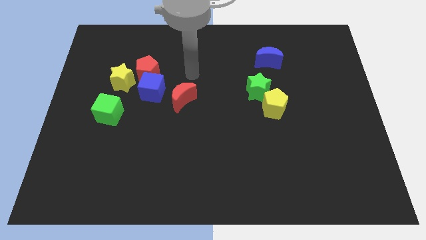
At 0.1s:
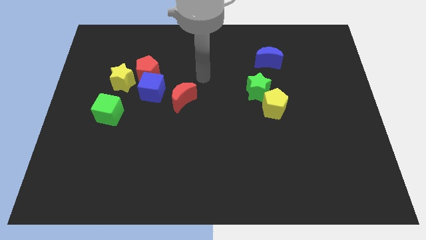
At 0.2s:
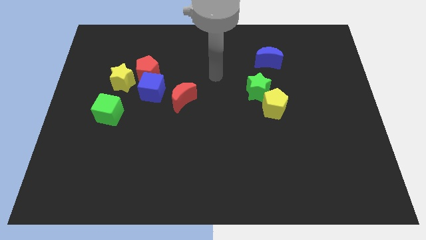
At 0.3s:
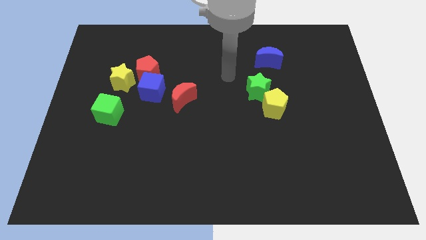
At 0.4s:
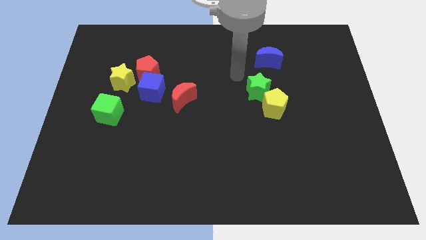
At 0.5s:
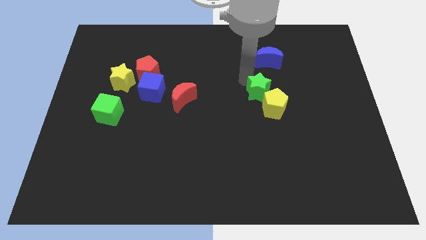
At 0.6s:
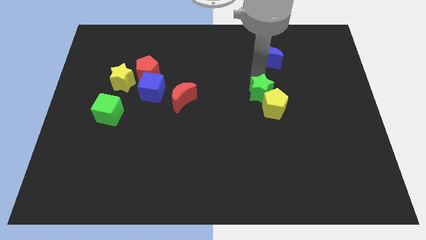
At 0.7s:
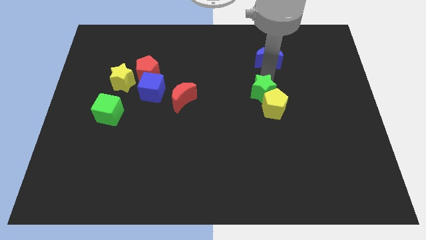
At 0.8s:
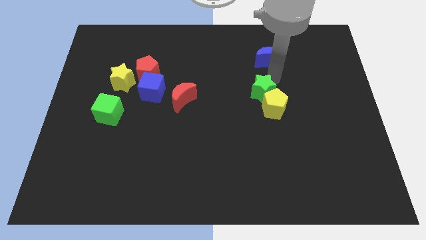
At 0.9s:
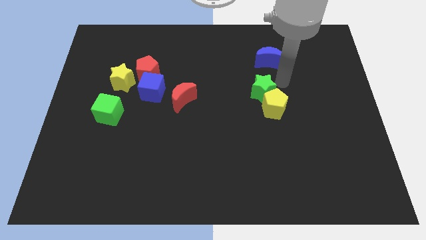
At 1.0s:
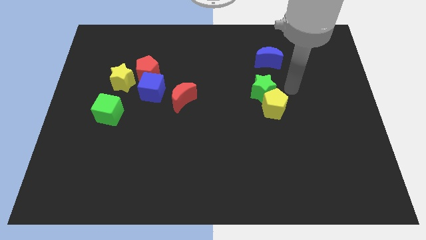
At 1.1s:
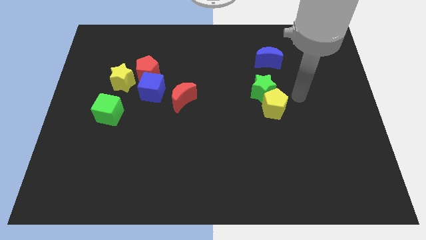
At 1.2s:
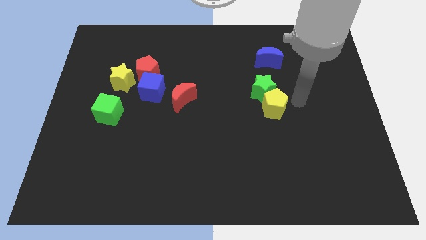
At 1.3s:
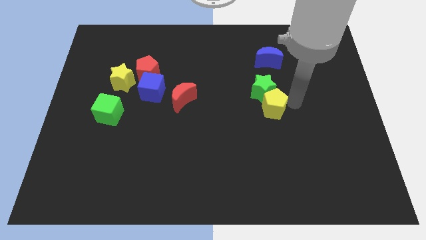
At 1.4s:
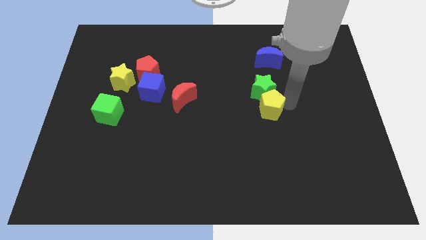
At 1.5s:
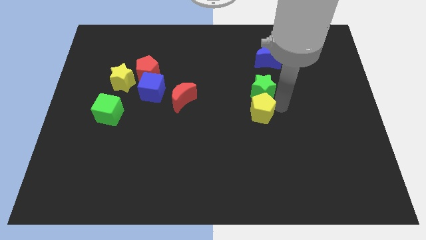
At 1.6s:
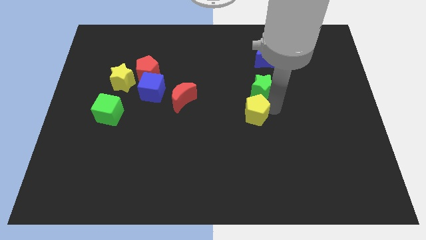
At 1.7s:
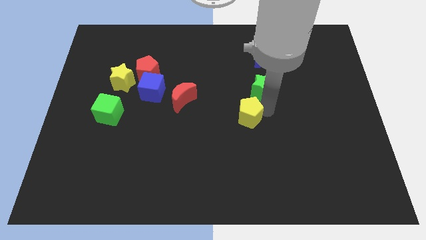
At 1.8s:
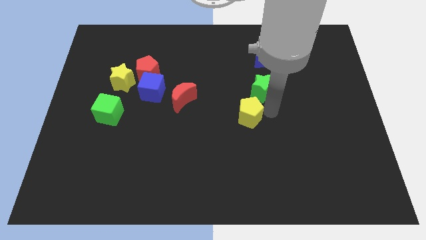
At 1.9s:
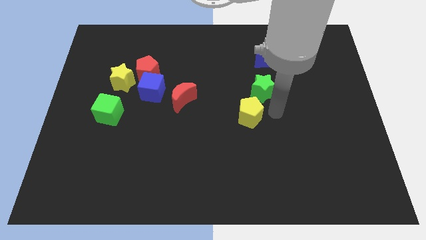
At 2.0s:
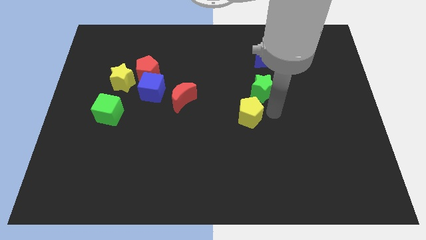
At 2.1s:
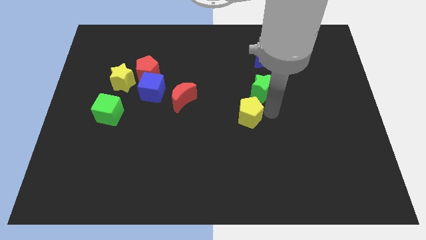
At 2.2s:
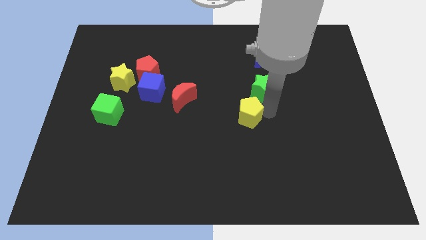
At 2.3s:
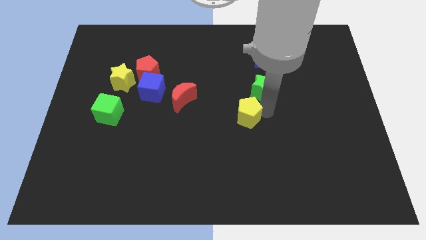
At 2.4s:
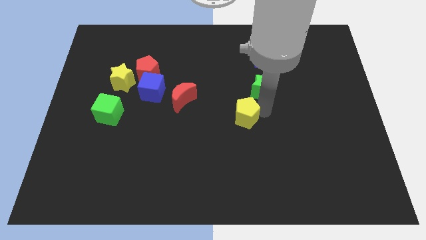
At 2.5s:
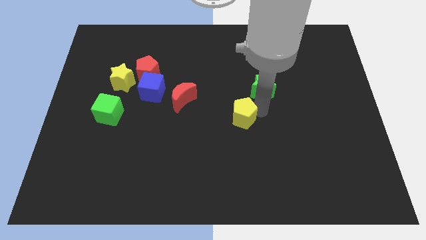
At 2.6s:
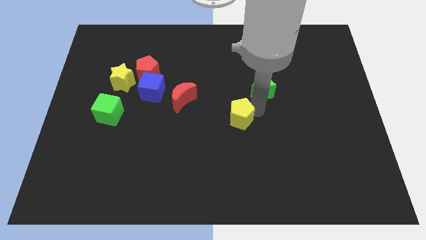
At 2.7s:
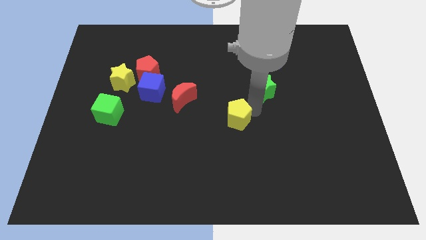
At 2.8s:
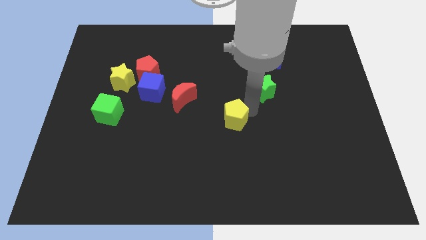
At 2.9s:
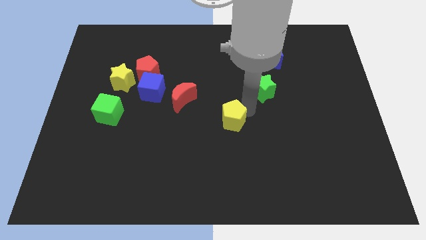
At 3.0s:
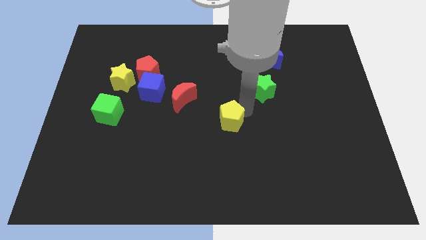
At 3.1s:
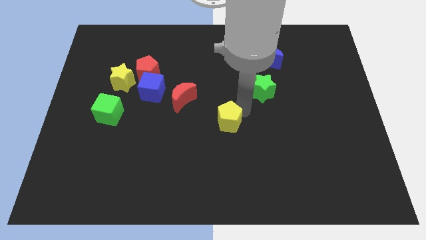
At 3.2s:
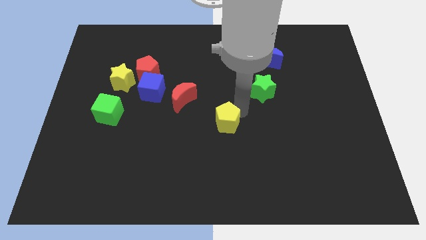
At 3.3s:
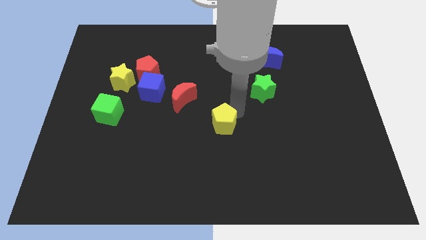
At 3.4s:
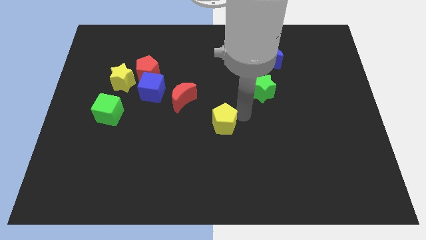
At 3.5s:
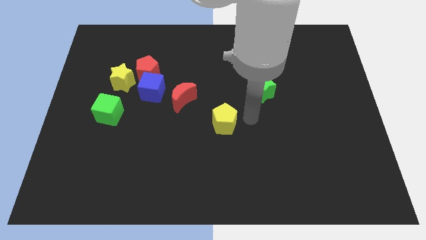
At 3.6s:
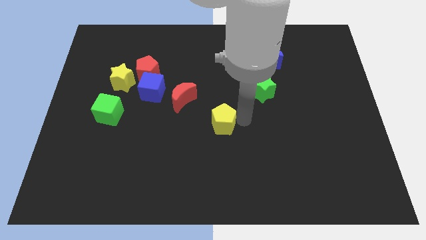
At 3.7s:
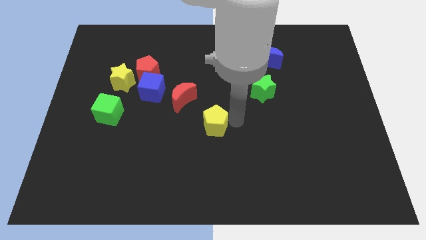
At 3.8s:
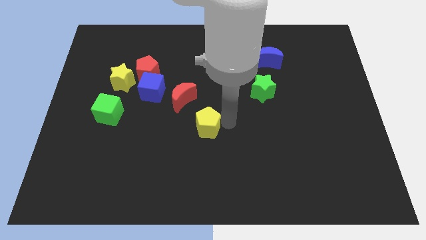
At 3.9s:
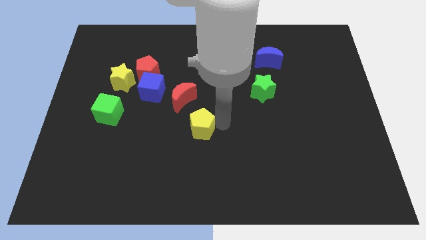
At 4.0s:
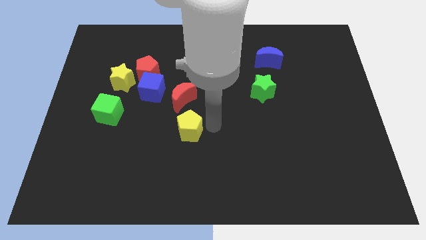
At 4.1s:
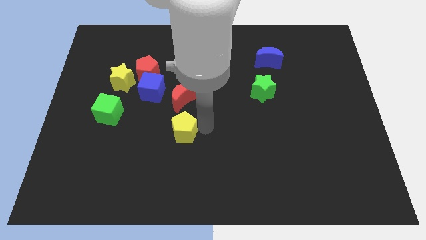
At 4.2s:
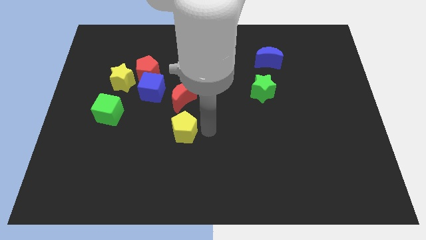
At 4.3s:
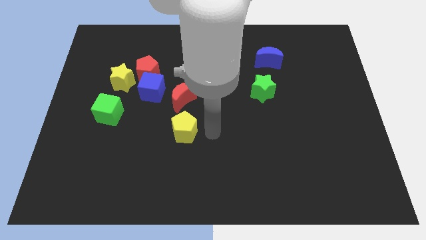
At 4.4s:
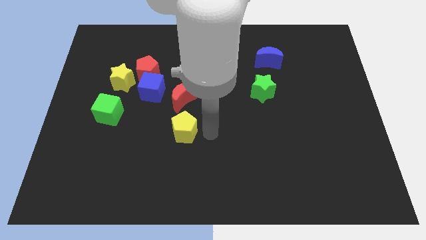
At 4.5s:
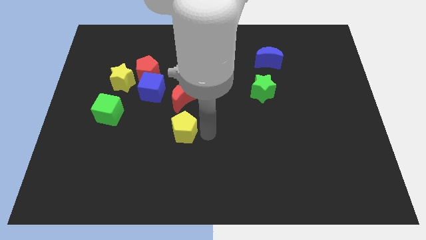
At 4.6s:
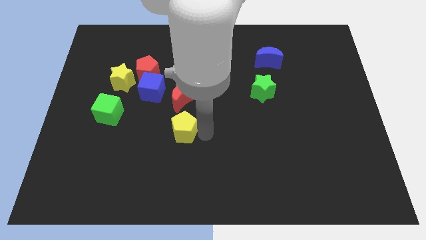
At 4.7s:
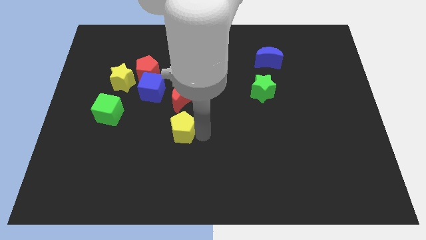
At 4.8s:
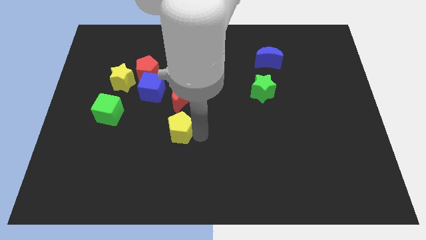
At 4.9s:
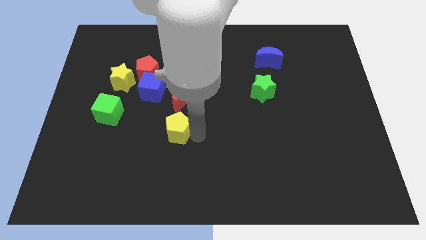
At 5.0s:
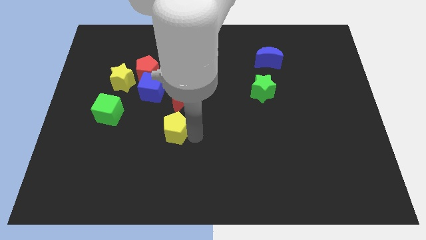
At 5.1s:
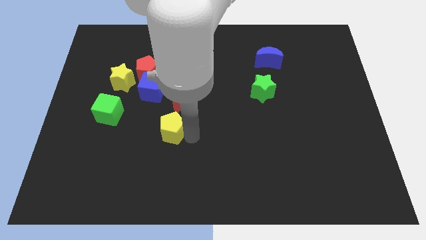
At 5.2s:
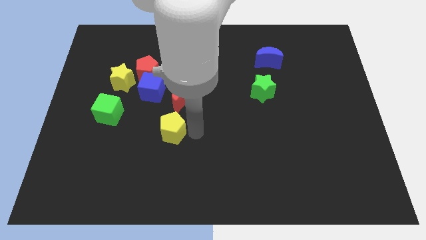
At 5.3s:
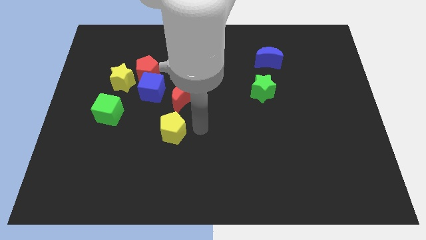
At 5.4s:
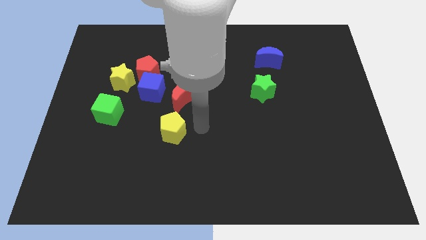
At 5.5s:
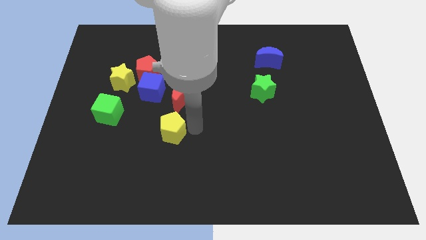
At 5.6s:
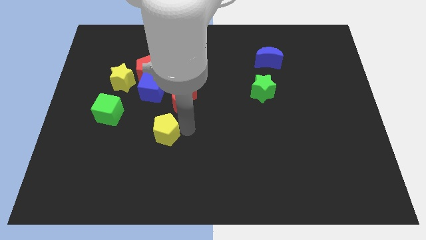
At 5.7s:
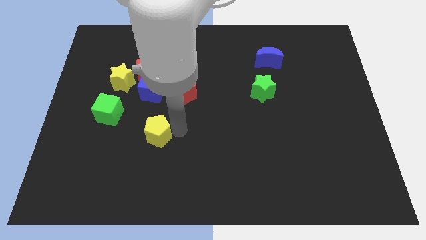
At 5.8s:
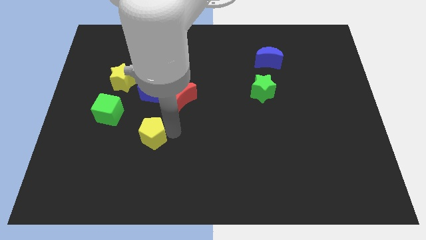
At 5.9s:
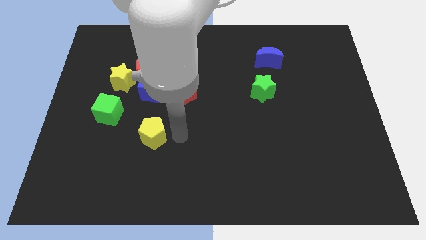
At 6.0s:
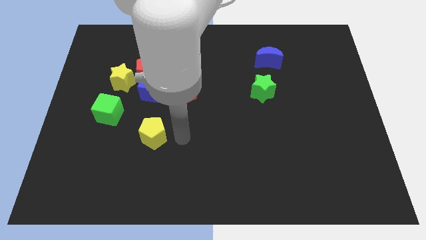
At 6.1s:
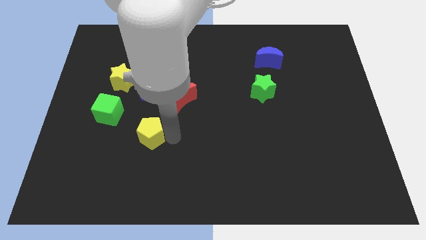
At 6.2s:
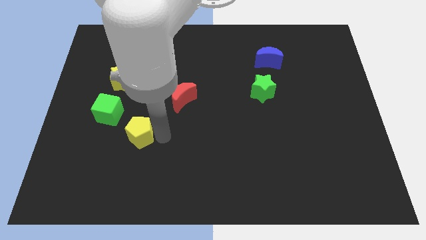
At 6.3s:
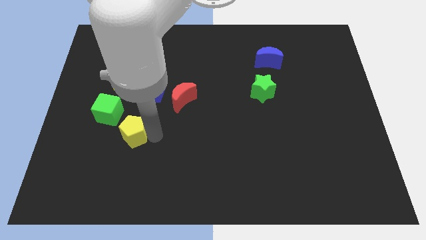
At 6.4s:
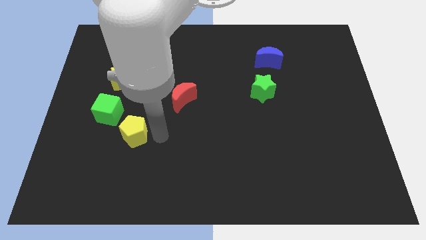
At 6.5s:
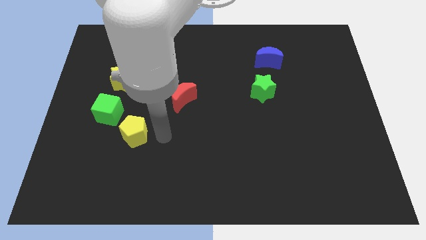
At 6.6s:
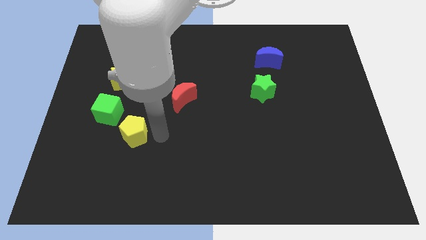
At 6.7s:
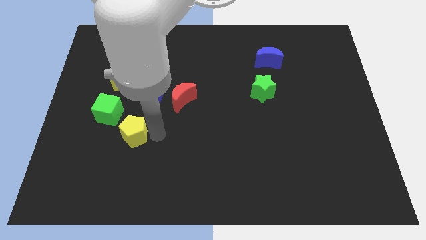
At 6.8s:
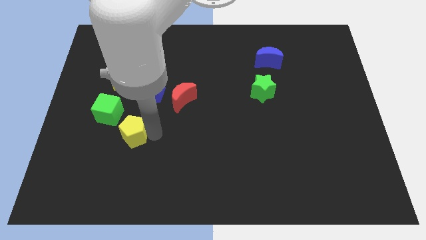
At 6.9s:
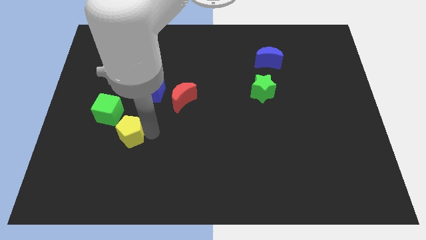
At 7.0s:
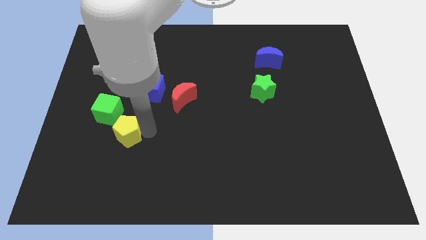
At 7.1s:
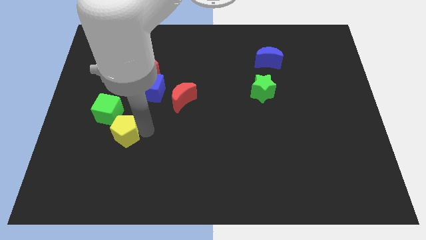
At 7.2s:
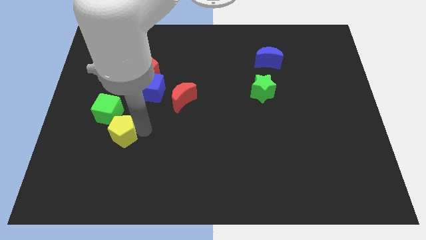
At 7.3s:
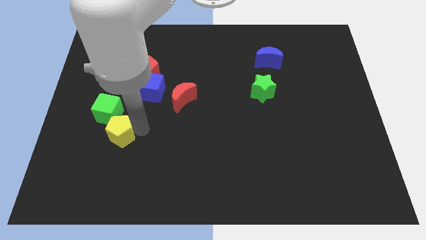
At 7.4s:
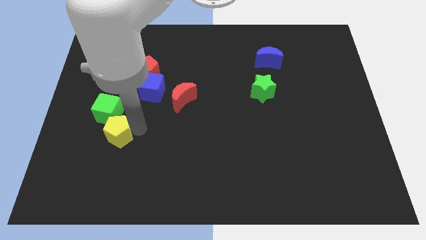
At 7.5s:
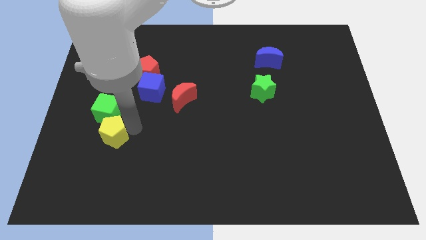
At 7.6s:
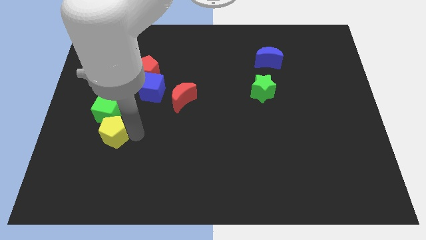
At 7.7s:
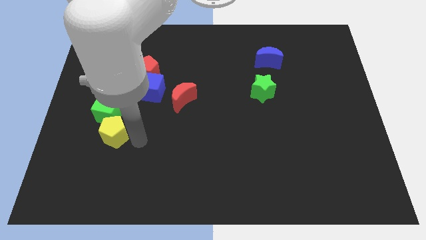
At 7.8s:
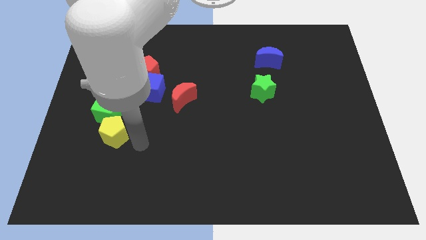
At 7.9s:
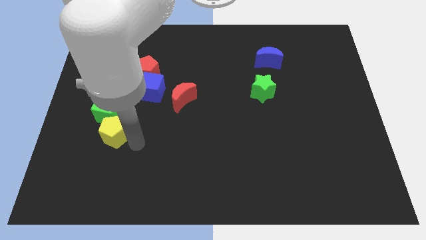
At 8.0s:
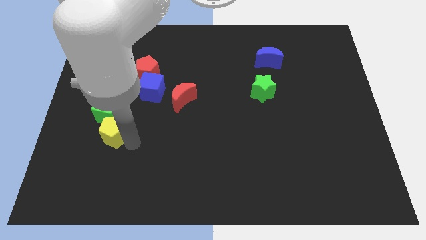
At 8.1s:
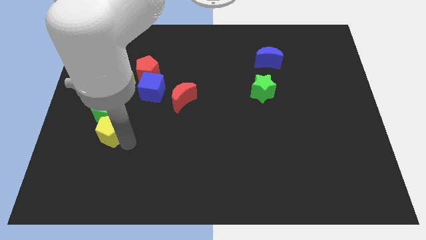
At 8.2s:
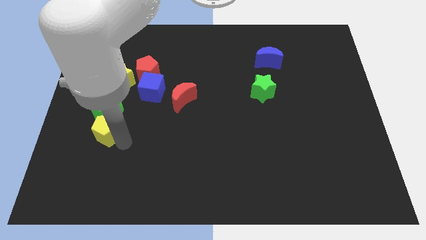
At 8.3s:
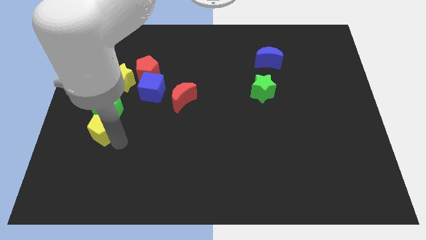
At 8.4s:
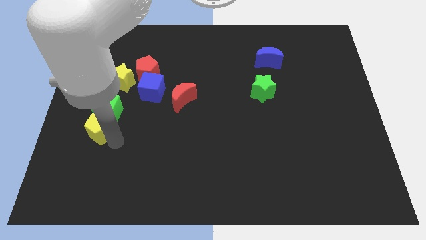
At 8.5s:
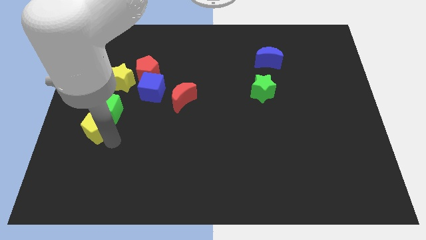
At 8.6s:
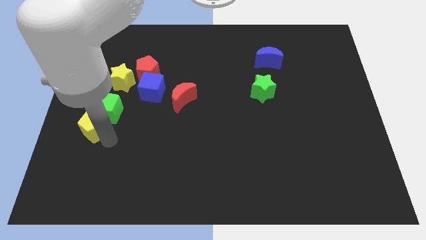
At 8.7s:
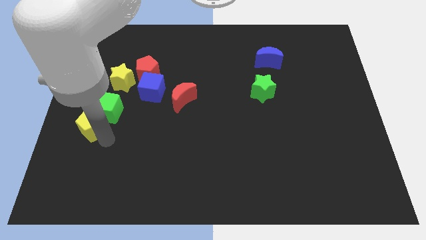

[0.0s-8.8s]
put the yellow pentagon to the left side of the board
